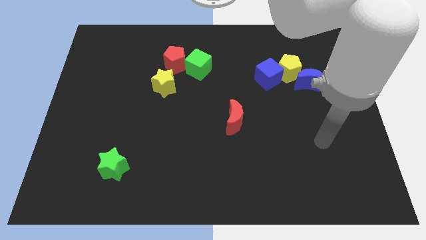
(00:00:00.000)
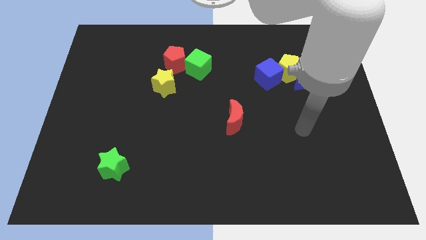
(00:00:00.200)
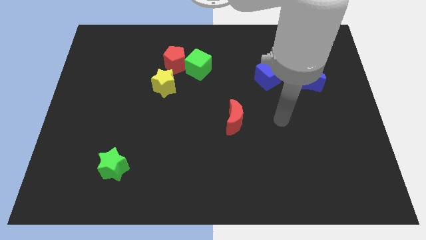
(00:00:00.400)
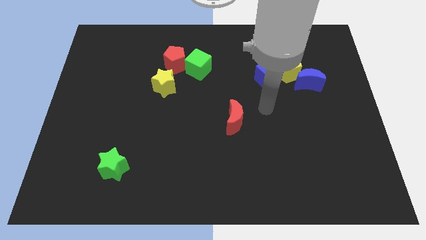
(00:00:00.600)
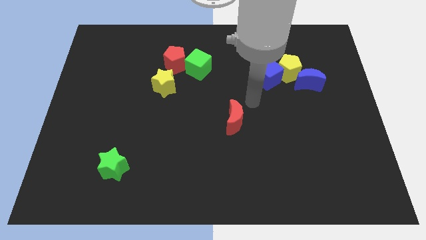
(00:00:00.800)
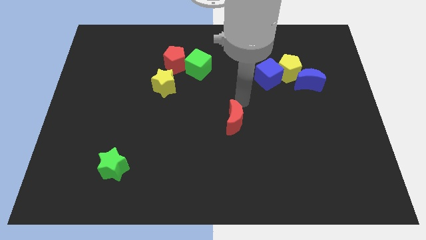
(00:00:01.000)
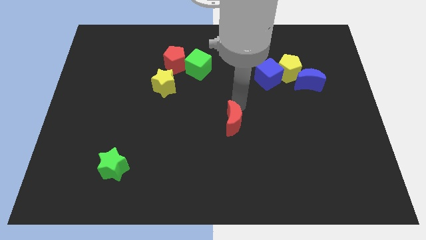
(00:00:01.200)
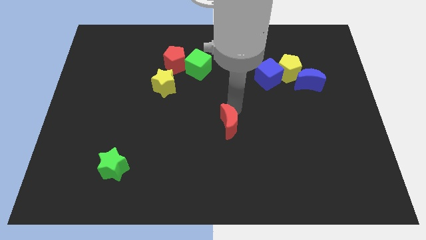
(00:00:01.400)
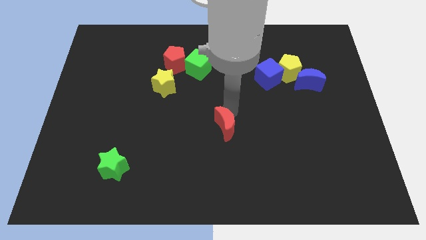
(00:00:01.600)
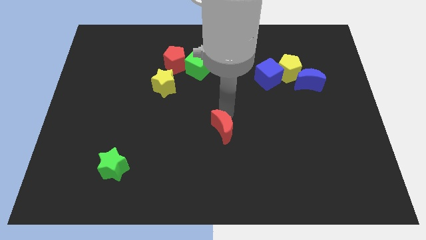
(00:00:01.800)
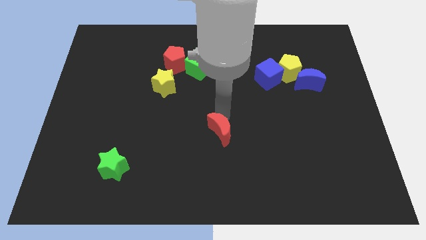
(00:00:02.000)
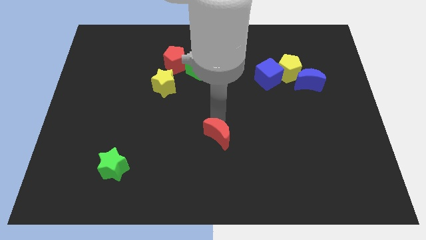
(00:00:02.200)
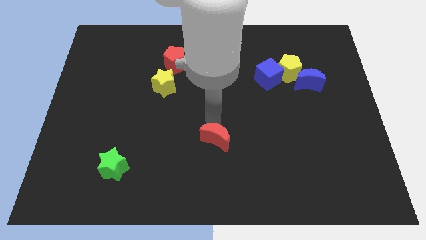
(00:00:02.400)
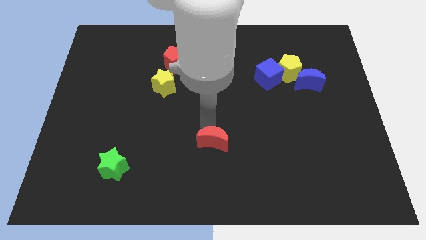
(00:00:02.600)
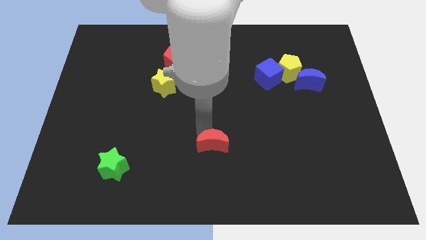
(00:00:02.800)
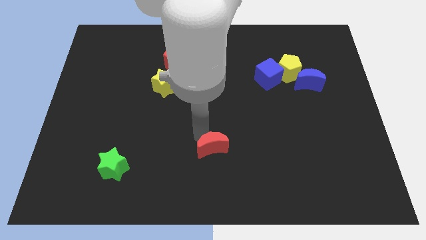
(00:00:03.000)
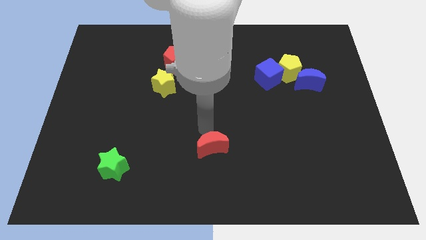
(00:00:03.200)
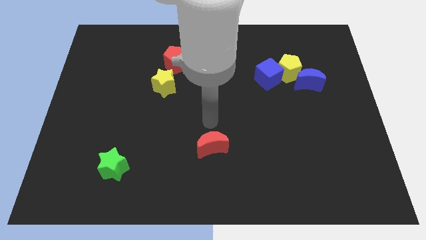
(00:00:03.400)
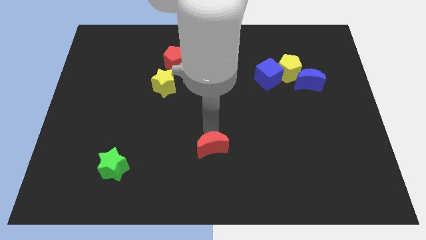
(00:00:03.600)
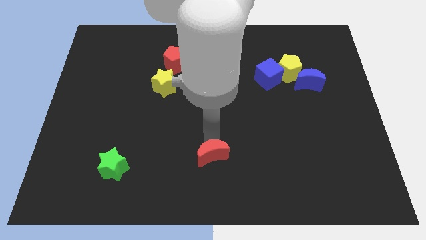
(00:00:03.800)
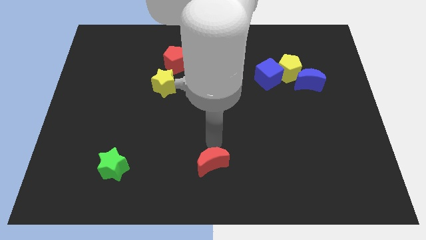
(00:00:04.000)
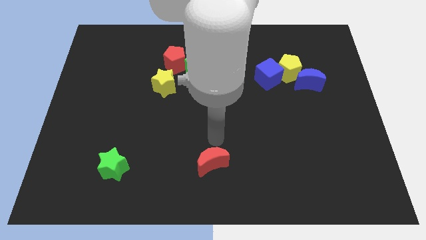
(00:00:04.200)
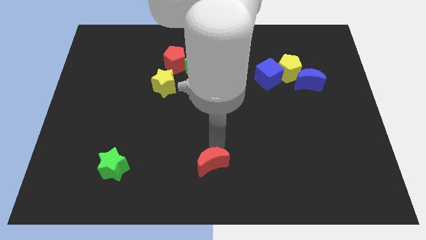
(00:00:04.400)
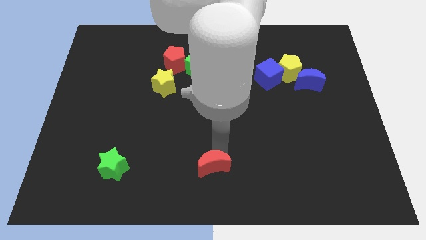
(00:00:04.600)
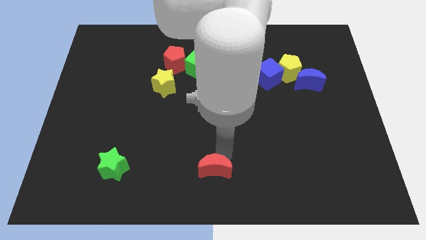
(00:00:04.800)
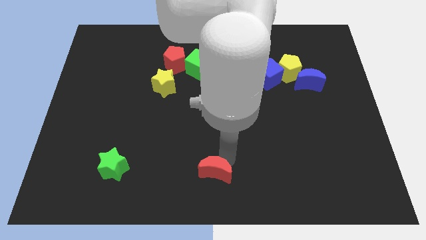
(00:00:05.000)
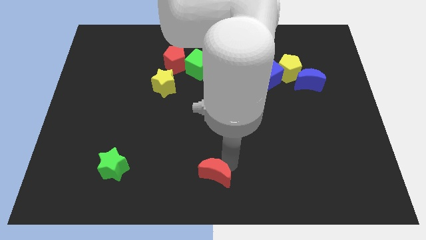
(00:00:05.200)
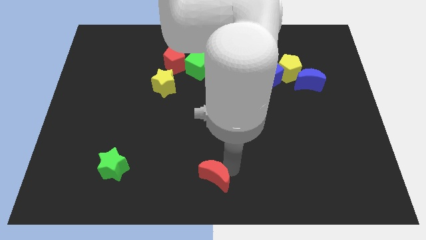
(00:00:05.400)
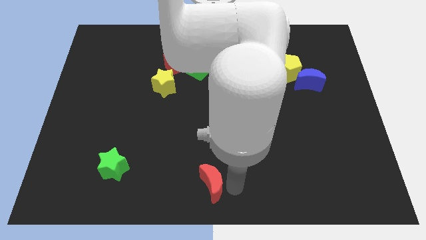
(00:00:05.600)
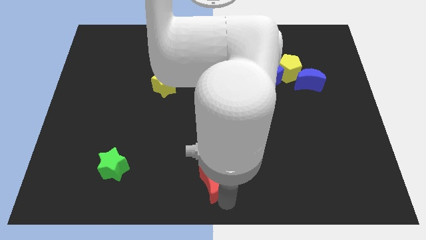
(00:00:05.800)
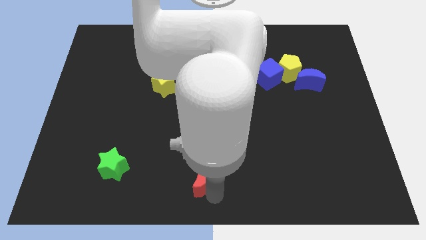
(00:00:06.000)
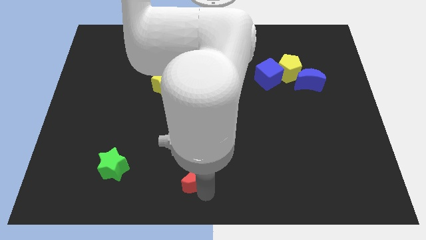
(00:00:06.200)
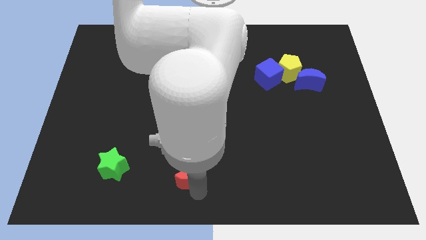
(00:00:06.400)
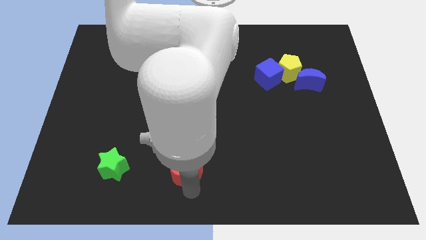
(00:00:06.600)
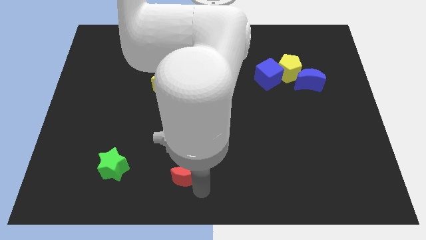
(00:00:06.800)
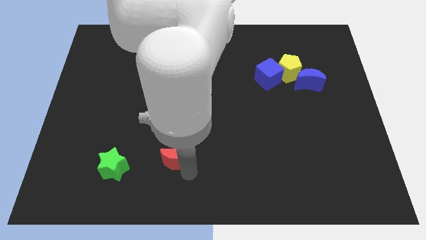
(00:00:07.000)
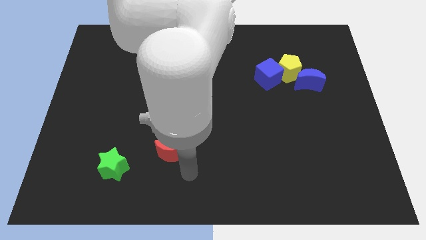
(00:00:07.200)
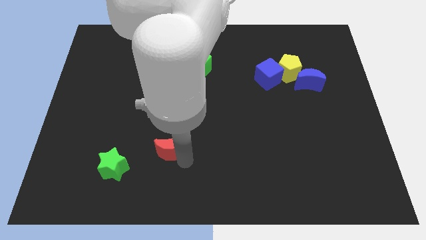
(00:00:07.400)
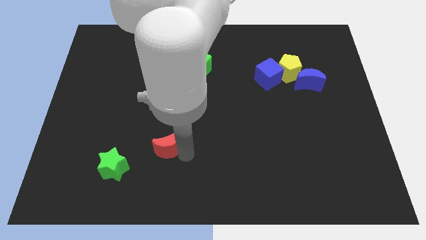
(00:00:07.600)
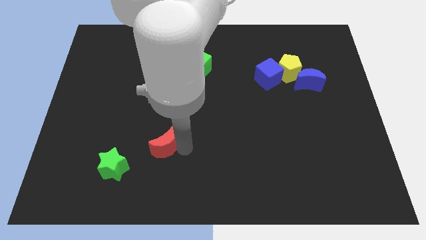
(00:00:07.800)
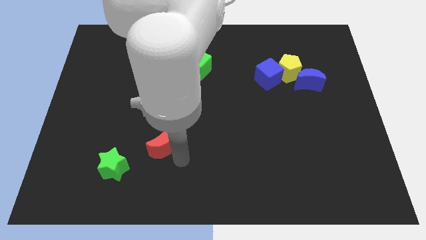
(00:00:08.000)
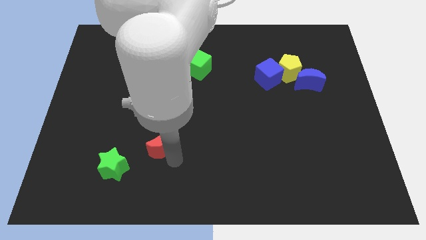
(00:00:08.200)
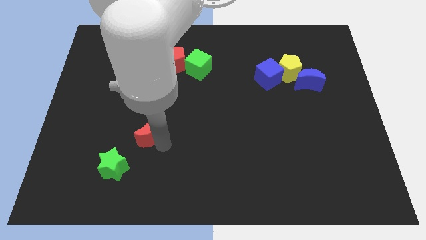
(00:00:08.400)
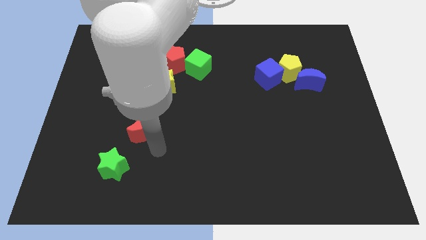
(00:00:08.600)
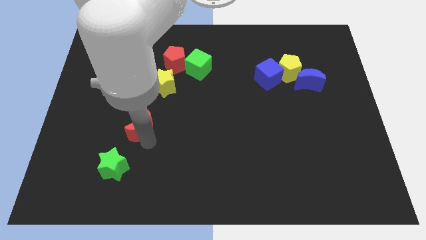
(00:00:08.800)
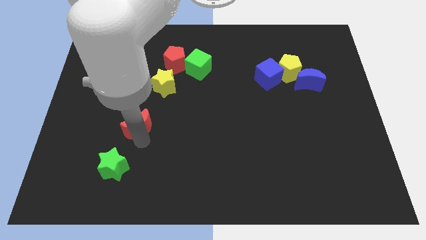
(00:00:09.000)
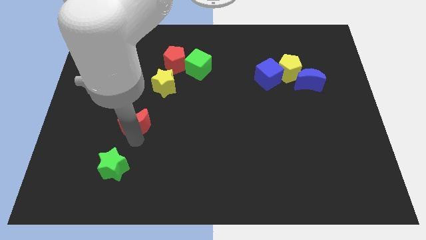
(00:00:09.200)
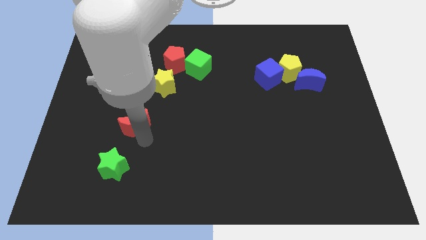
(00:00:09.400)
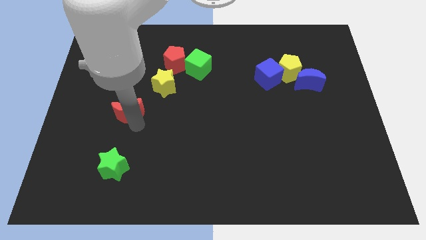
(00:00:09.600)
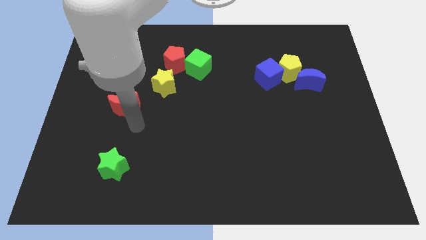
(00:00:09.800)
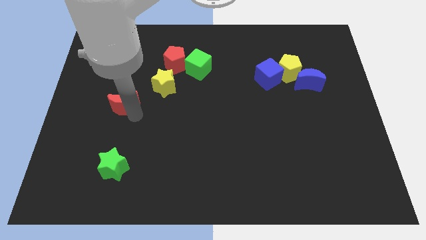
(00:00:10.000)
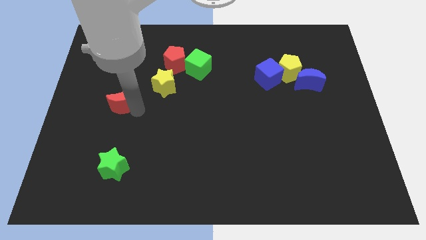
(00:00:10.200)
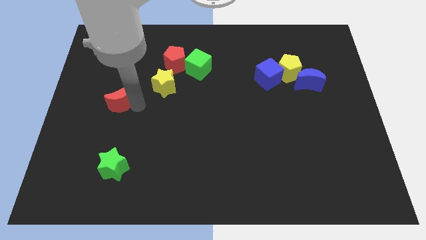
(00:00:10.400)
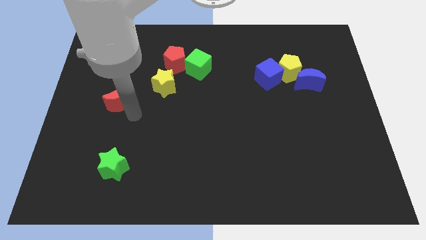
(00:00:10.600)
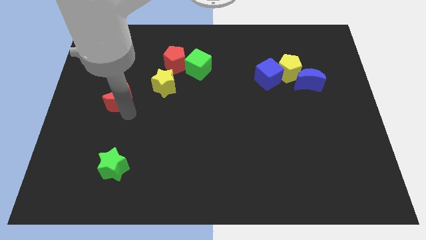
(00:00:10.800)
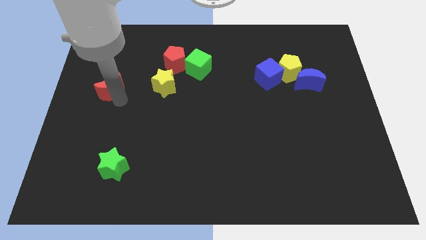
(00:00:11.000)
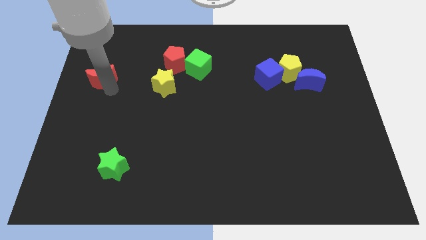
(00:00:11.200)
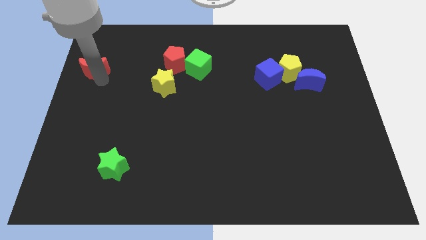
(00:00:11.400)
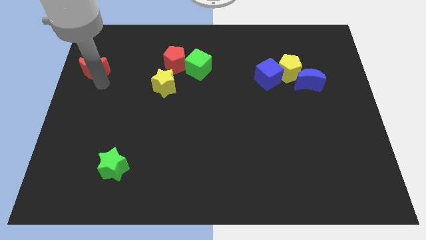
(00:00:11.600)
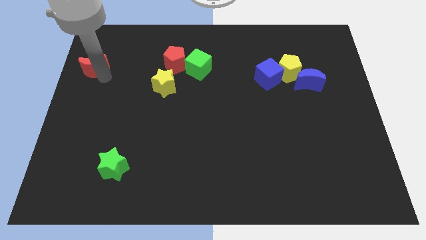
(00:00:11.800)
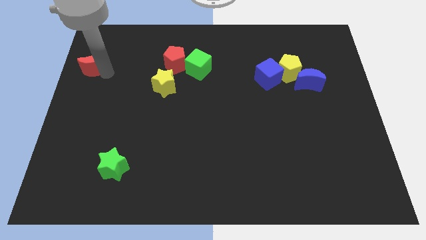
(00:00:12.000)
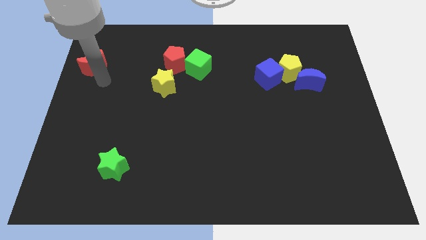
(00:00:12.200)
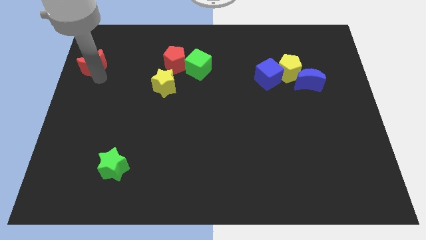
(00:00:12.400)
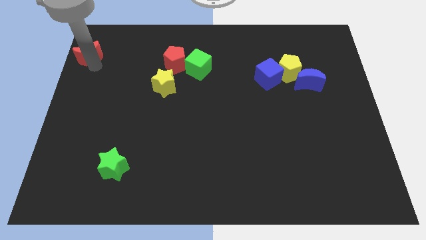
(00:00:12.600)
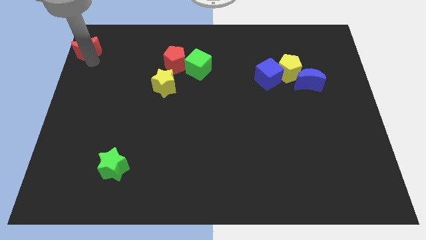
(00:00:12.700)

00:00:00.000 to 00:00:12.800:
move the red moon to the top left
